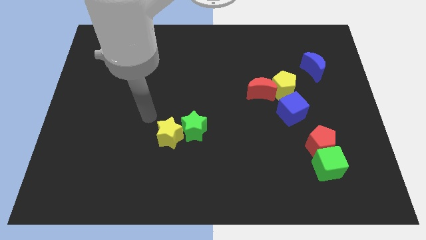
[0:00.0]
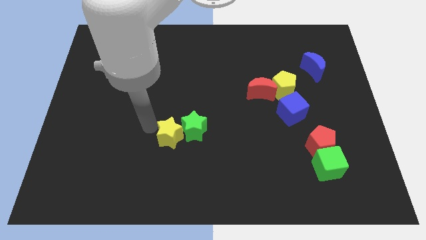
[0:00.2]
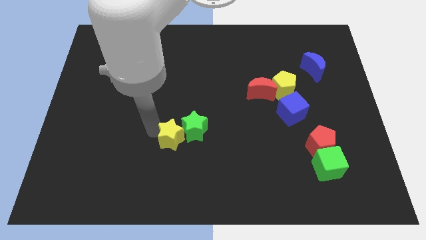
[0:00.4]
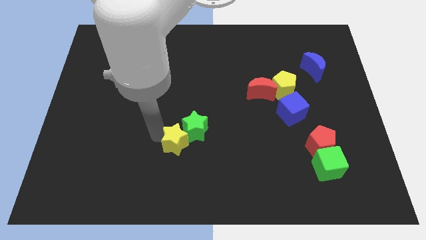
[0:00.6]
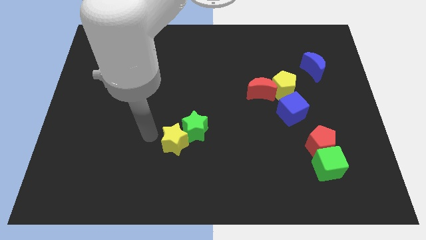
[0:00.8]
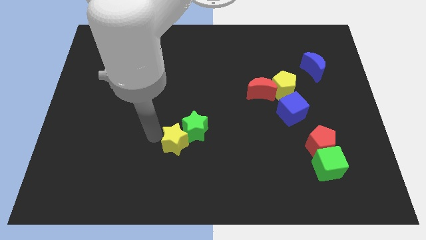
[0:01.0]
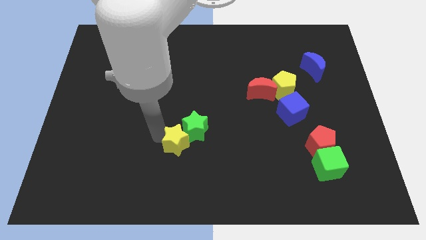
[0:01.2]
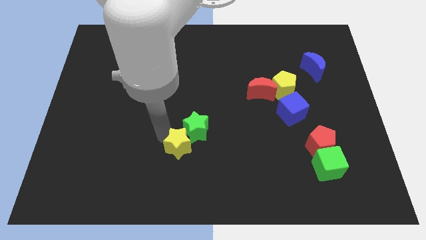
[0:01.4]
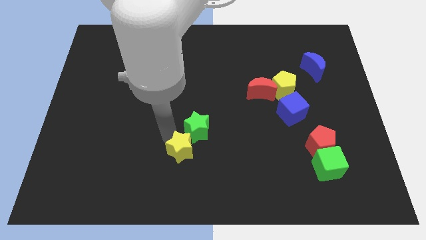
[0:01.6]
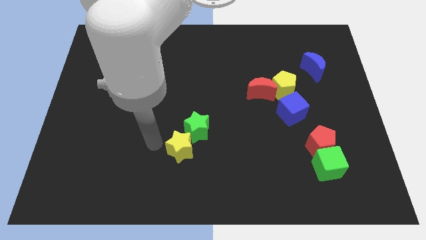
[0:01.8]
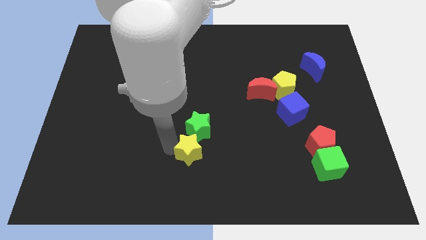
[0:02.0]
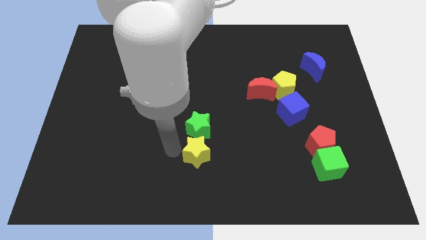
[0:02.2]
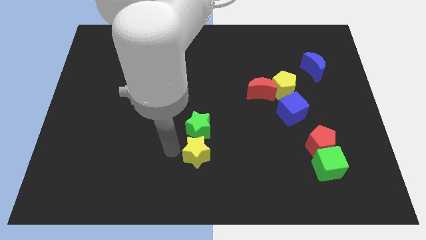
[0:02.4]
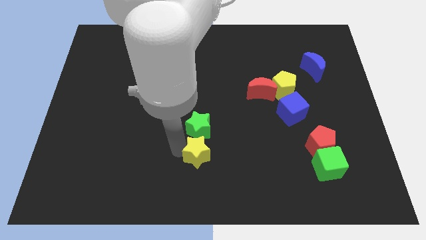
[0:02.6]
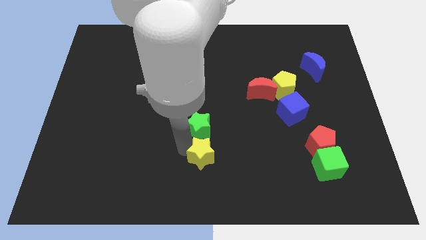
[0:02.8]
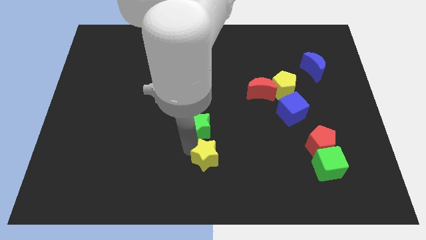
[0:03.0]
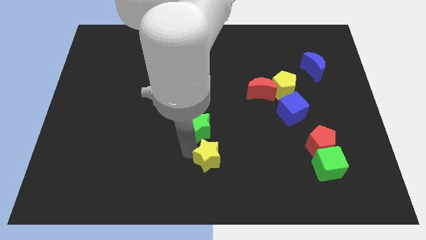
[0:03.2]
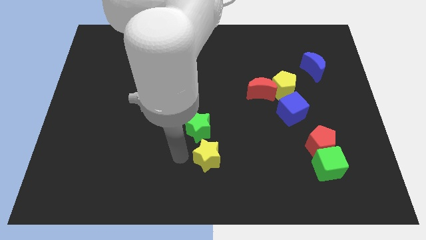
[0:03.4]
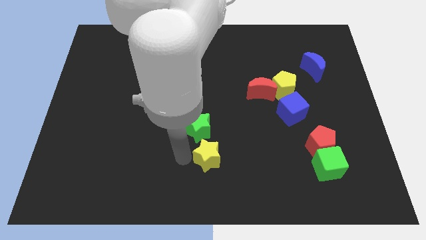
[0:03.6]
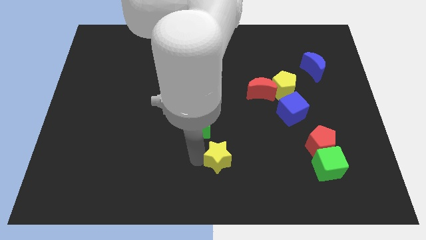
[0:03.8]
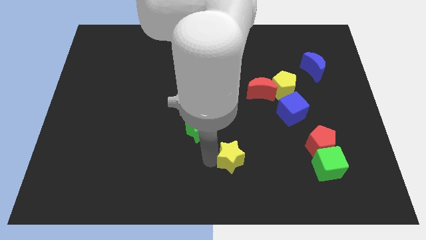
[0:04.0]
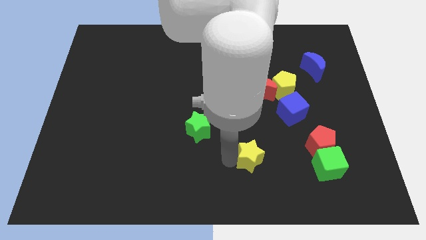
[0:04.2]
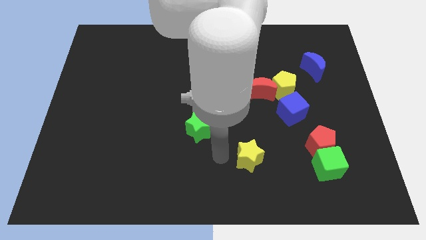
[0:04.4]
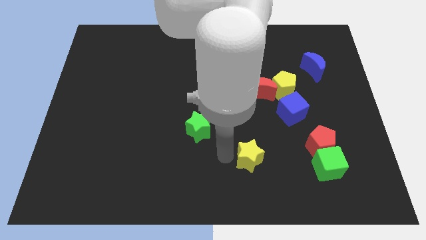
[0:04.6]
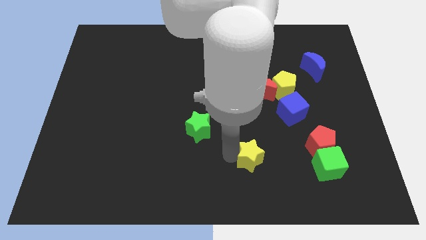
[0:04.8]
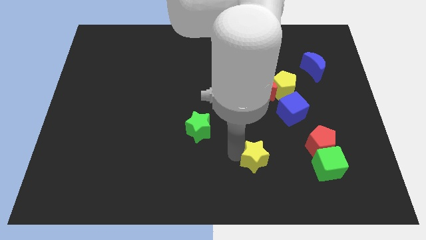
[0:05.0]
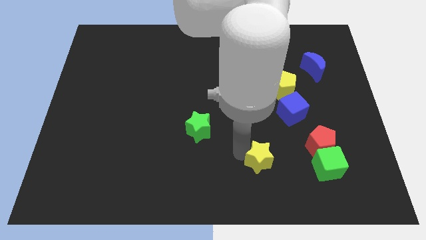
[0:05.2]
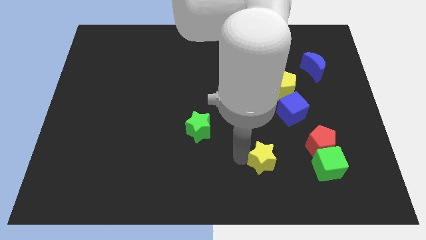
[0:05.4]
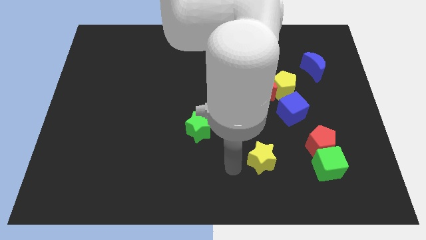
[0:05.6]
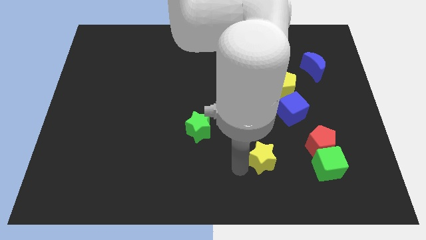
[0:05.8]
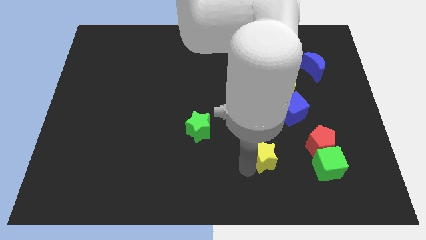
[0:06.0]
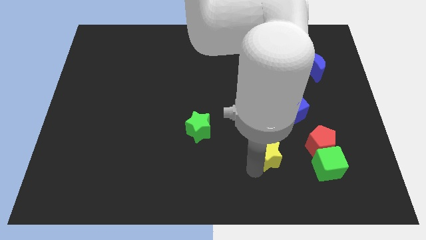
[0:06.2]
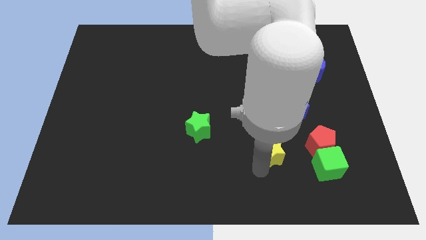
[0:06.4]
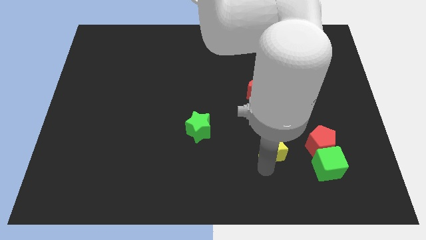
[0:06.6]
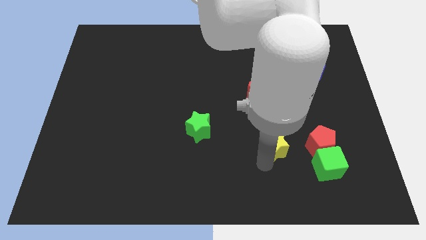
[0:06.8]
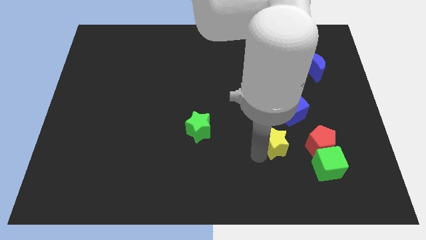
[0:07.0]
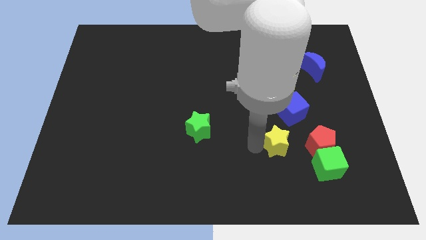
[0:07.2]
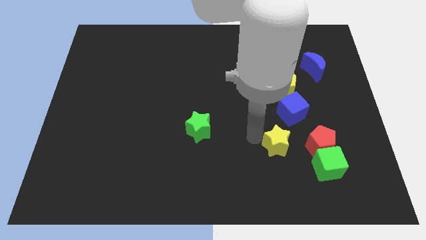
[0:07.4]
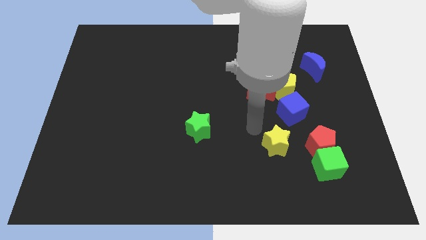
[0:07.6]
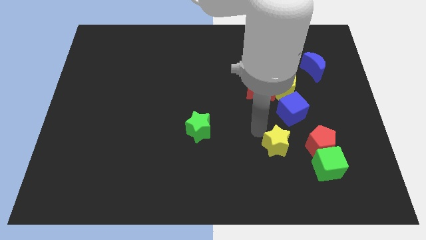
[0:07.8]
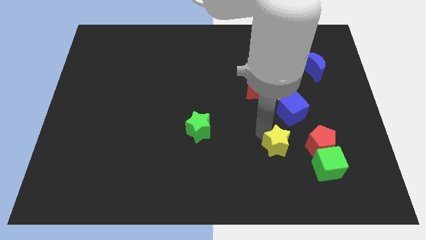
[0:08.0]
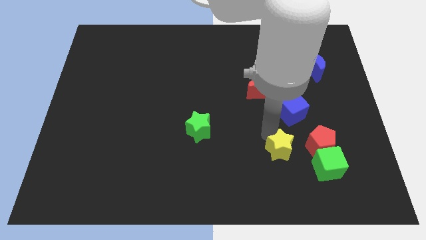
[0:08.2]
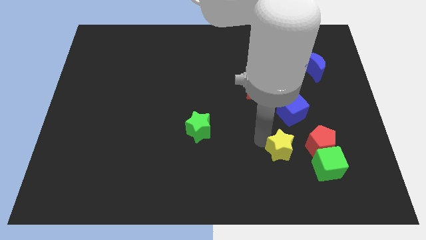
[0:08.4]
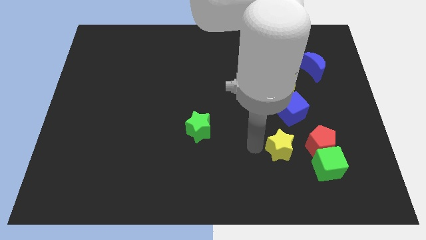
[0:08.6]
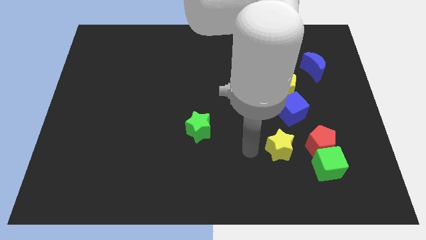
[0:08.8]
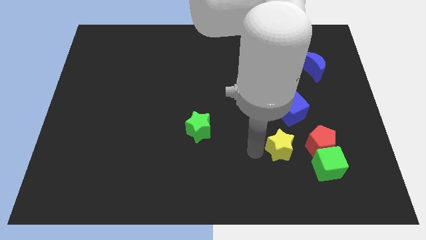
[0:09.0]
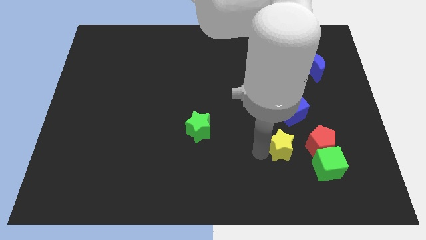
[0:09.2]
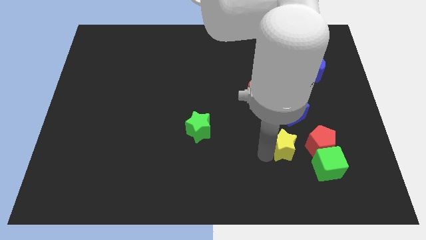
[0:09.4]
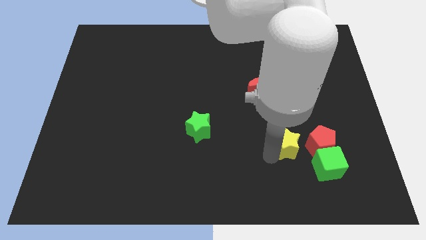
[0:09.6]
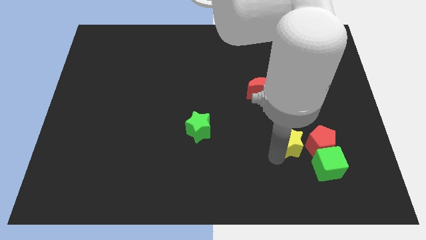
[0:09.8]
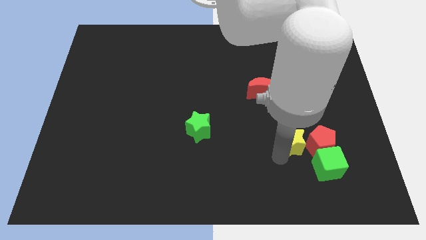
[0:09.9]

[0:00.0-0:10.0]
slide the yellow star next to the red pentagon

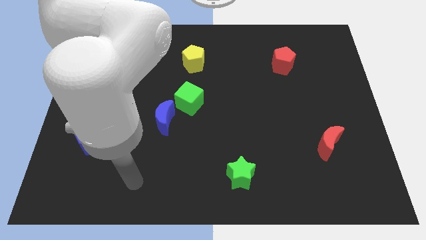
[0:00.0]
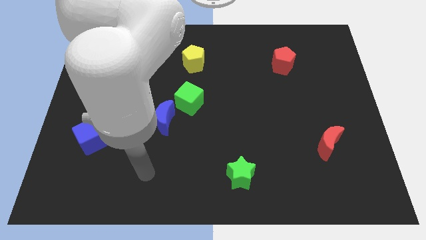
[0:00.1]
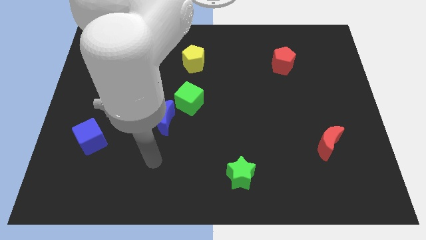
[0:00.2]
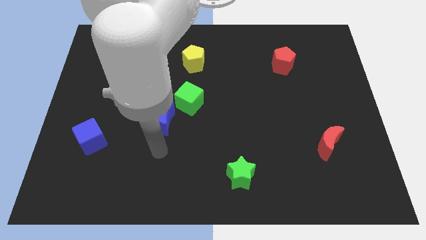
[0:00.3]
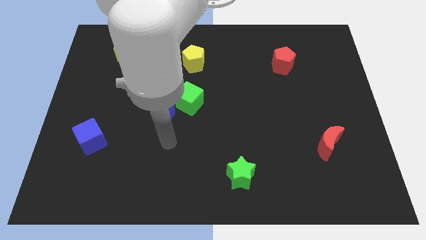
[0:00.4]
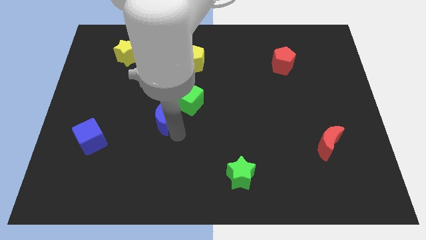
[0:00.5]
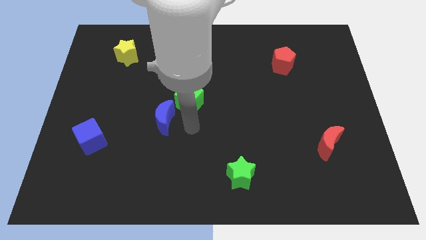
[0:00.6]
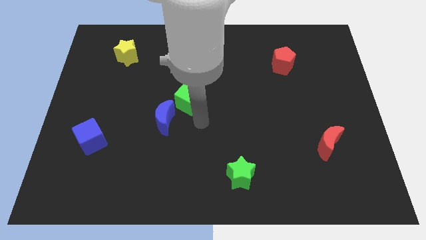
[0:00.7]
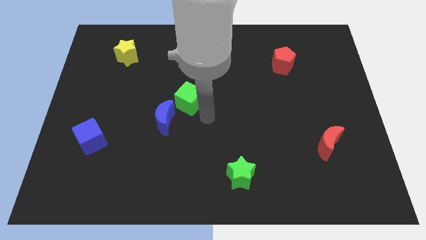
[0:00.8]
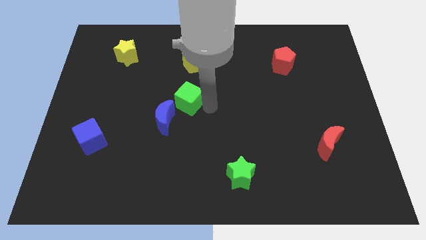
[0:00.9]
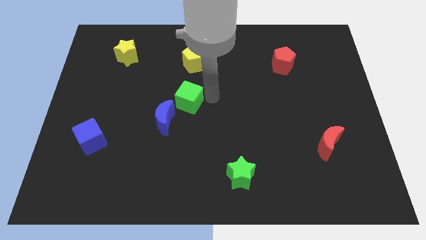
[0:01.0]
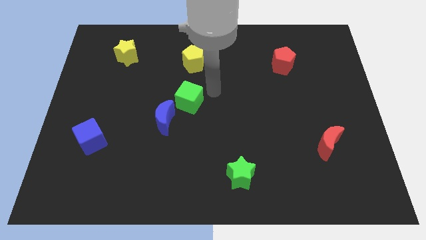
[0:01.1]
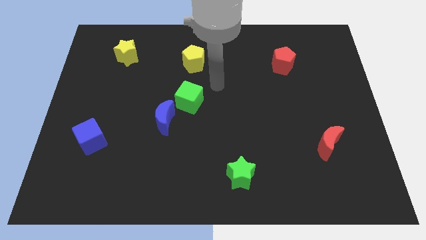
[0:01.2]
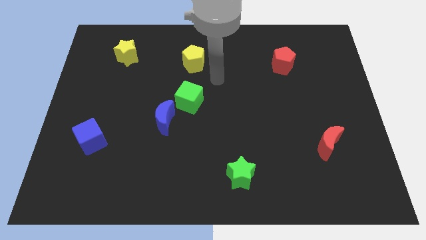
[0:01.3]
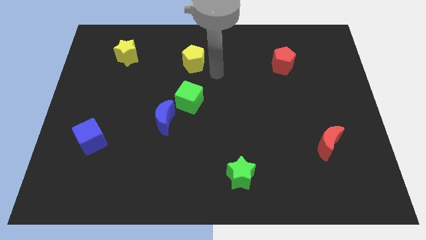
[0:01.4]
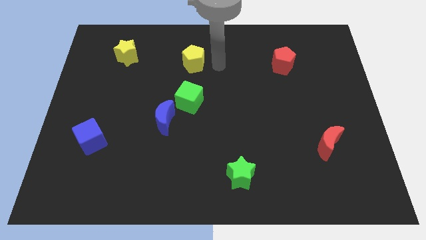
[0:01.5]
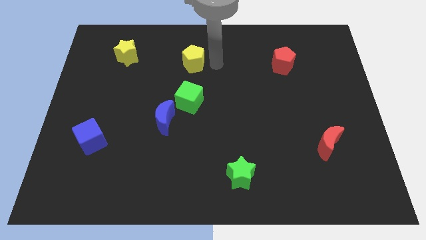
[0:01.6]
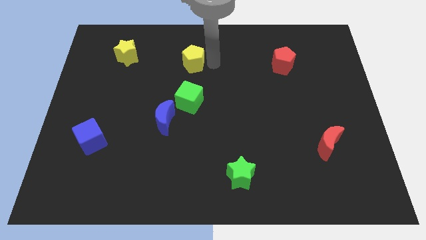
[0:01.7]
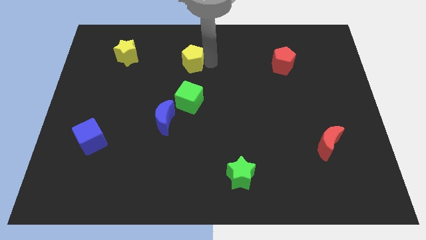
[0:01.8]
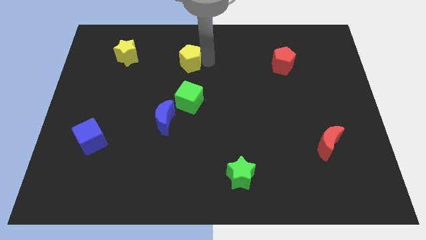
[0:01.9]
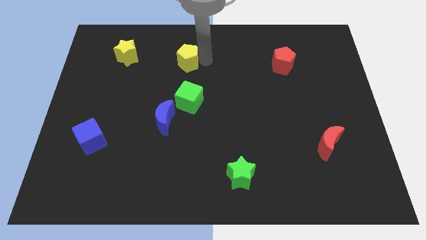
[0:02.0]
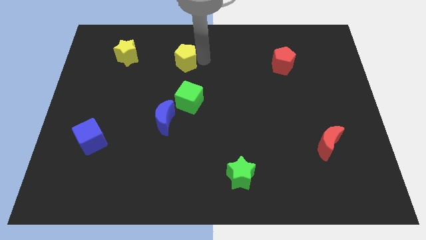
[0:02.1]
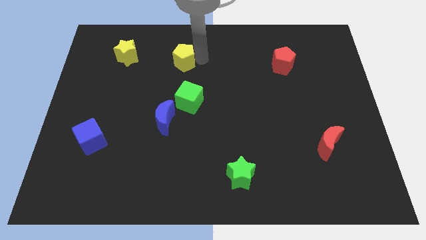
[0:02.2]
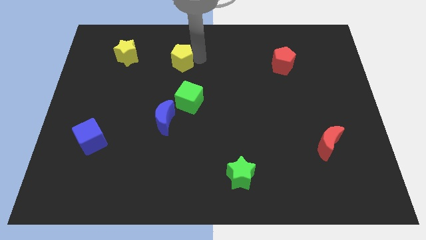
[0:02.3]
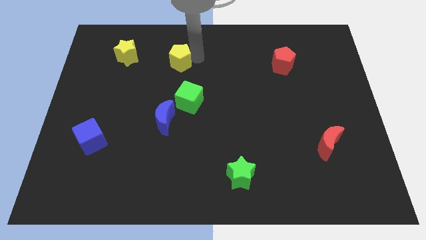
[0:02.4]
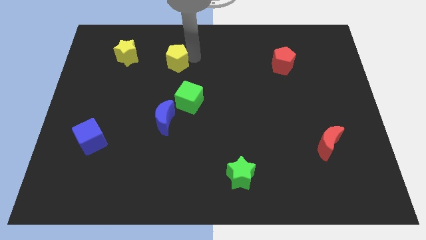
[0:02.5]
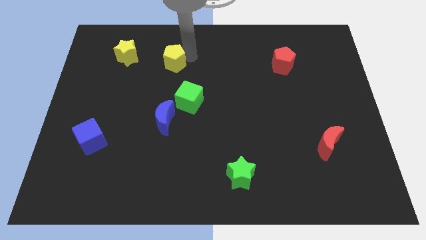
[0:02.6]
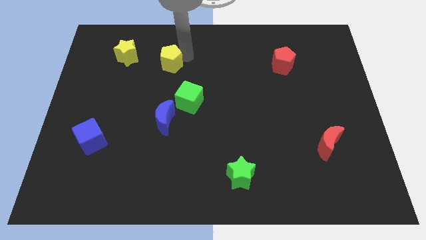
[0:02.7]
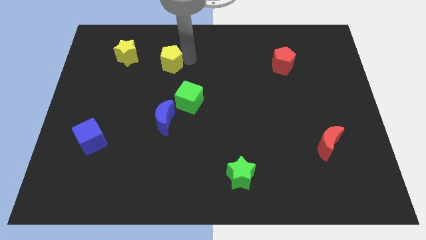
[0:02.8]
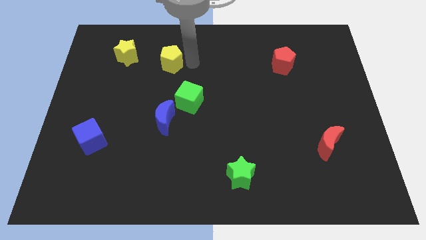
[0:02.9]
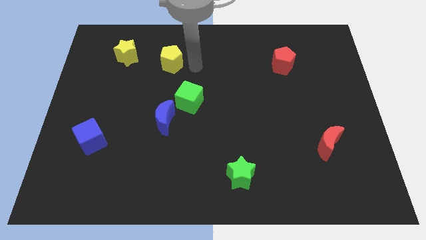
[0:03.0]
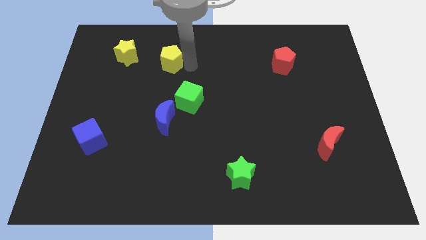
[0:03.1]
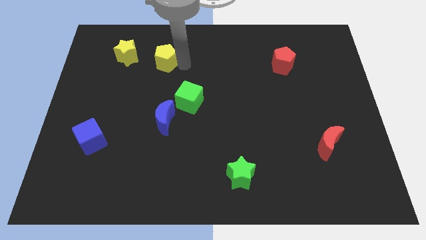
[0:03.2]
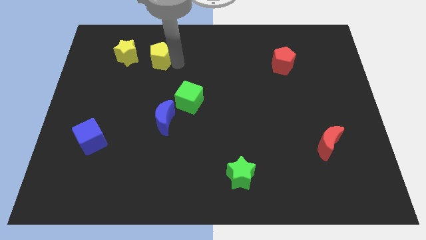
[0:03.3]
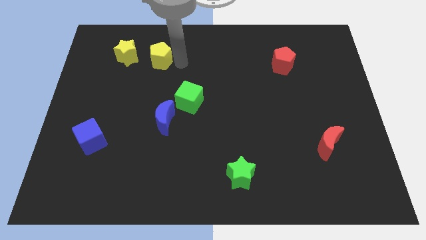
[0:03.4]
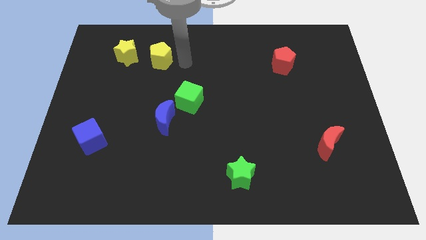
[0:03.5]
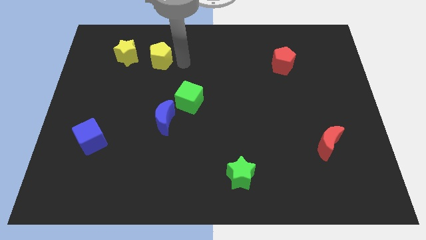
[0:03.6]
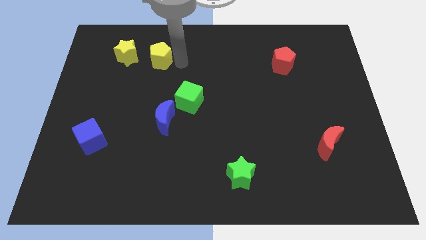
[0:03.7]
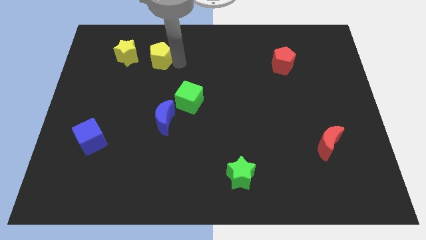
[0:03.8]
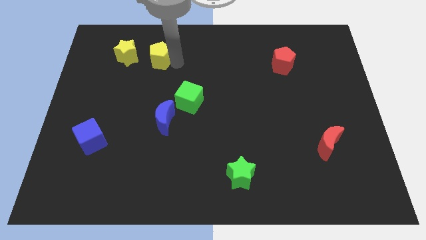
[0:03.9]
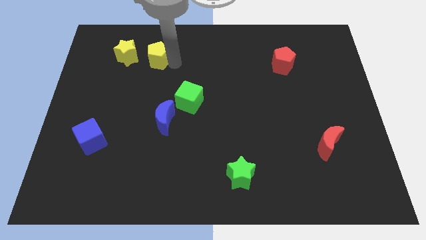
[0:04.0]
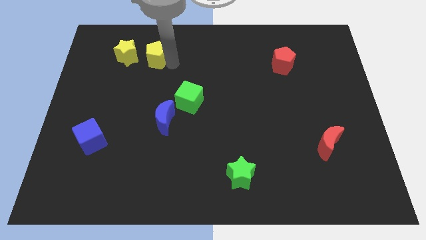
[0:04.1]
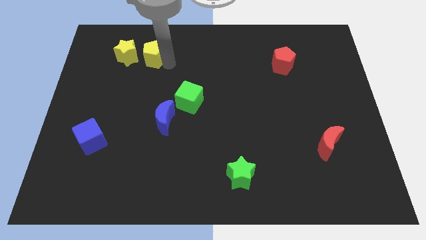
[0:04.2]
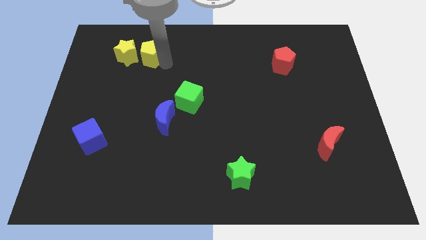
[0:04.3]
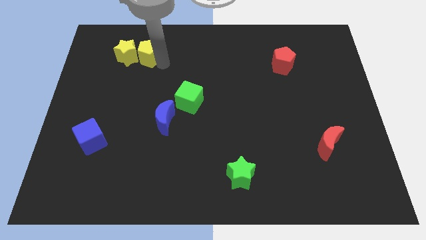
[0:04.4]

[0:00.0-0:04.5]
push the yellow pentagon next to the yellow star
